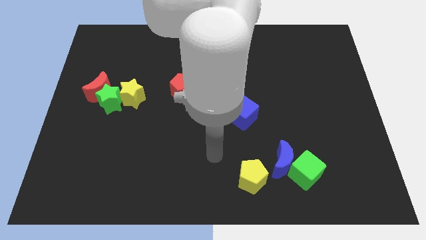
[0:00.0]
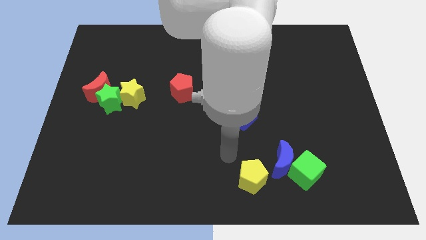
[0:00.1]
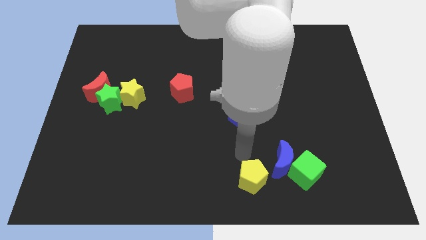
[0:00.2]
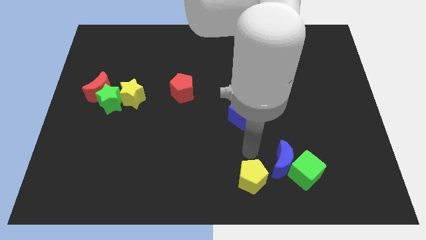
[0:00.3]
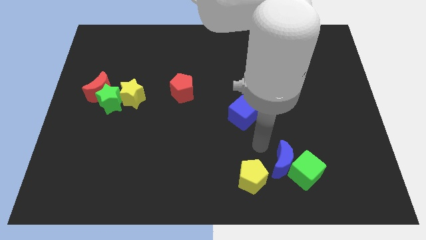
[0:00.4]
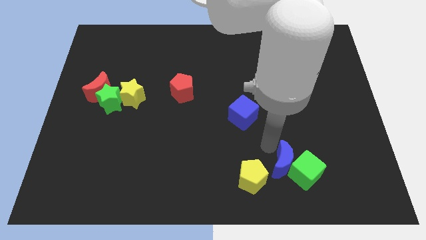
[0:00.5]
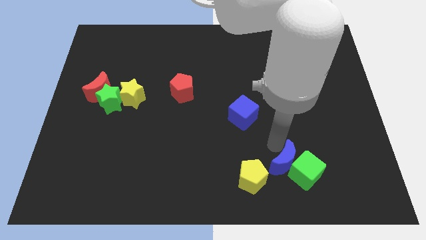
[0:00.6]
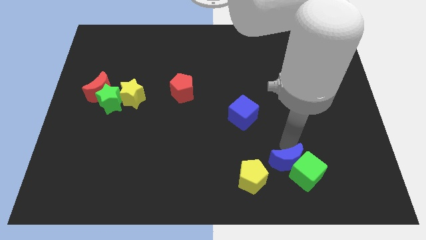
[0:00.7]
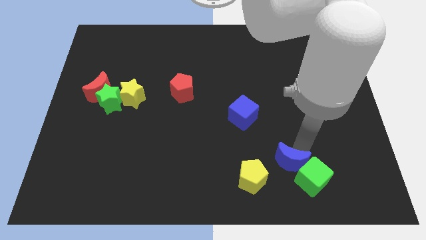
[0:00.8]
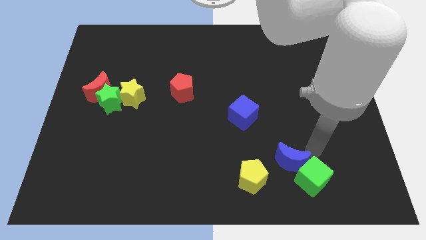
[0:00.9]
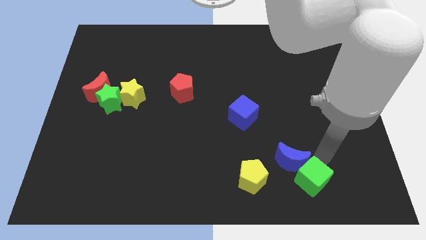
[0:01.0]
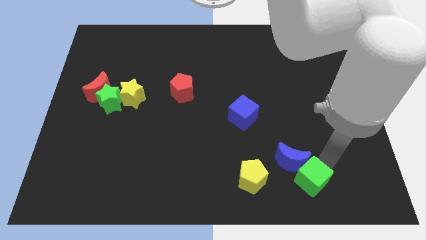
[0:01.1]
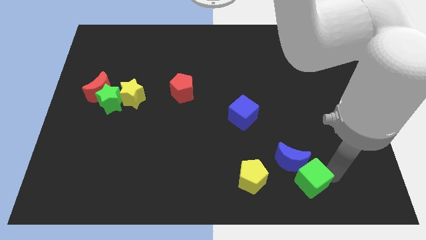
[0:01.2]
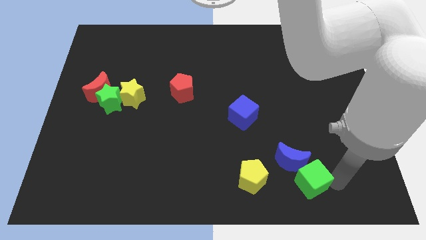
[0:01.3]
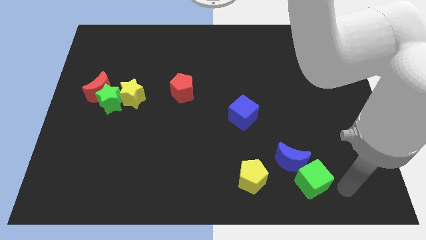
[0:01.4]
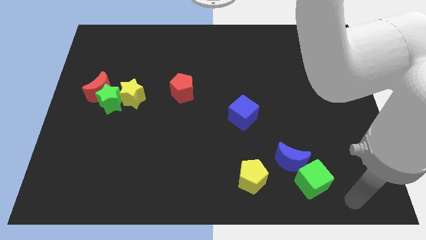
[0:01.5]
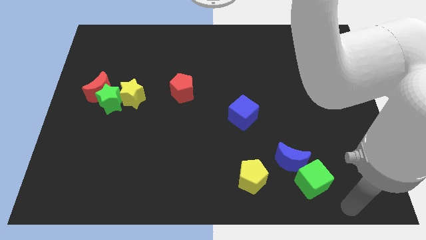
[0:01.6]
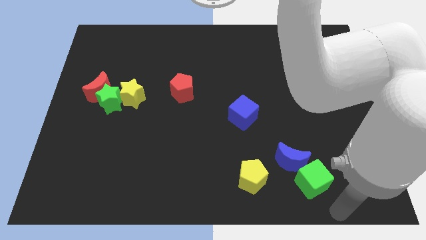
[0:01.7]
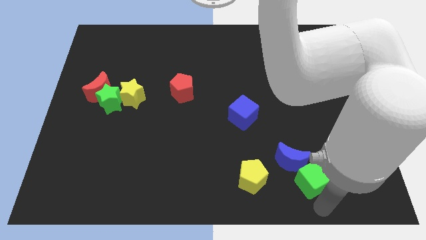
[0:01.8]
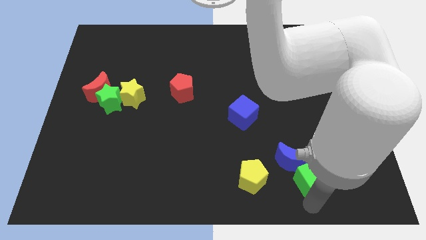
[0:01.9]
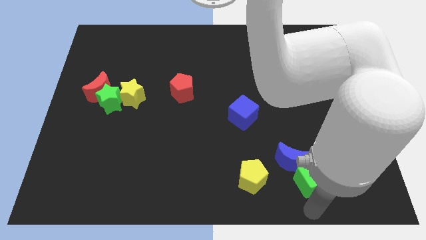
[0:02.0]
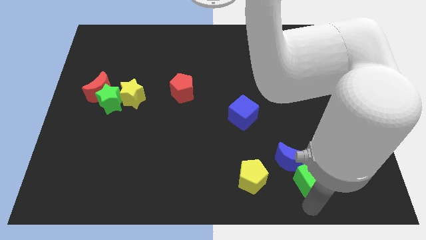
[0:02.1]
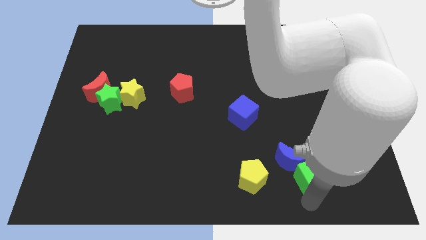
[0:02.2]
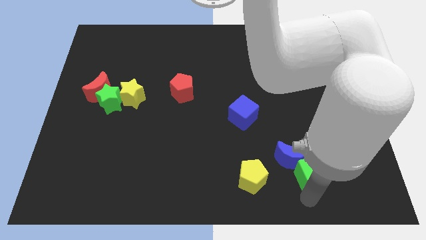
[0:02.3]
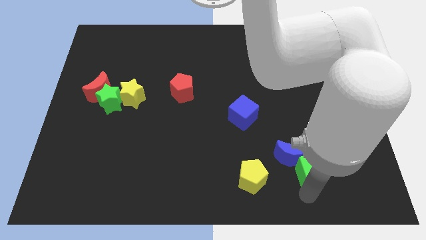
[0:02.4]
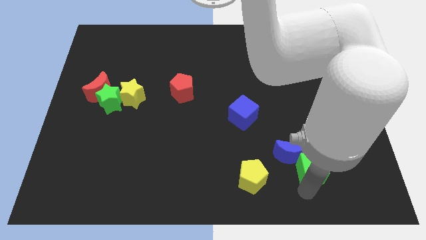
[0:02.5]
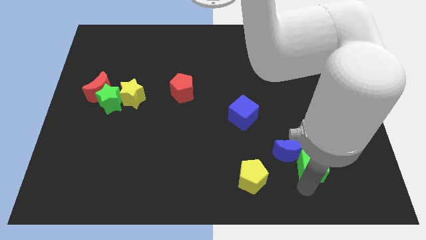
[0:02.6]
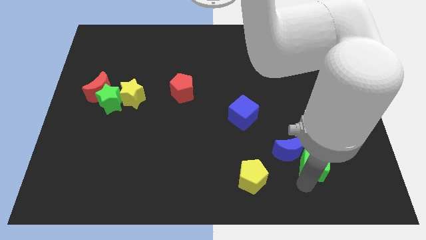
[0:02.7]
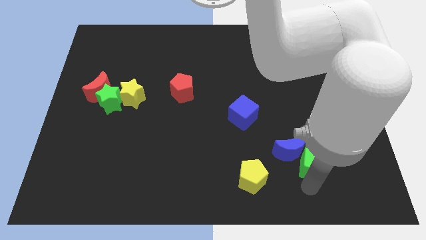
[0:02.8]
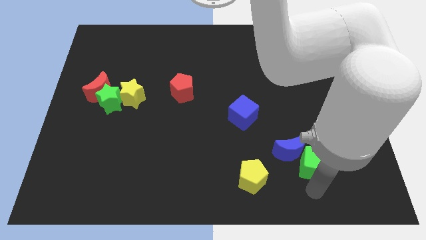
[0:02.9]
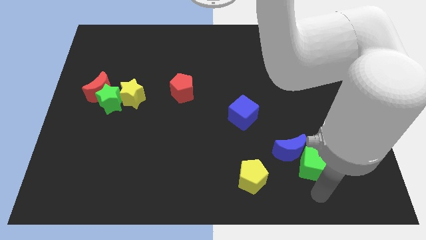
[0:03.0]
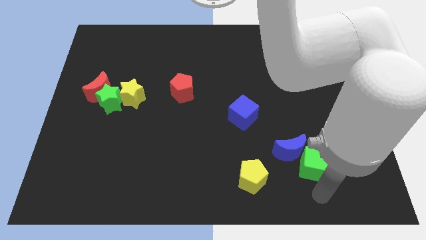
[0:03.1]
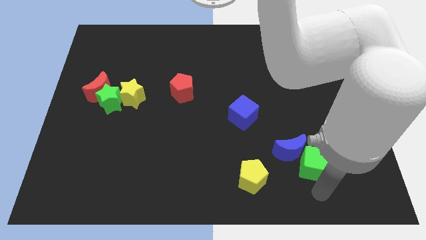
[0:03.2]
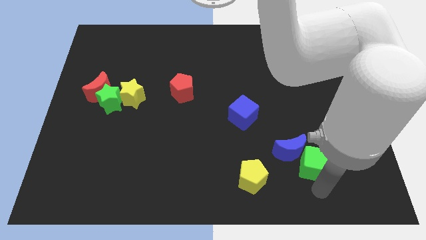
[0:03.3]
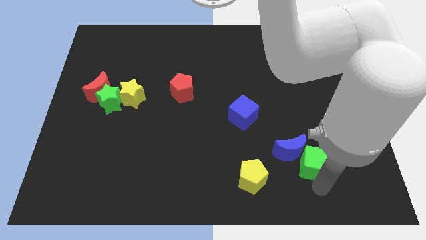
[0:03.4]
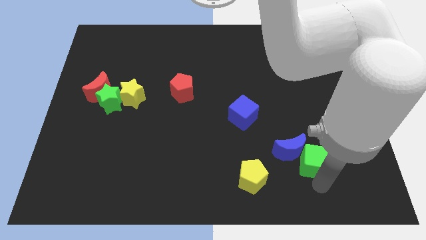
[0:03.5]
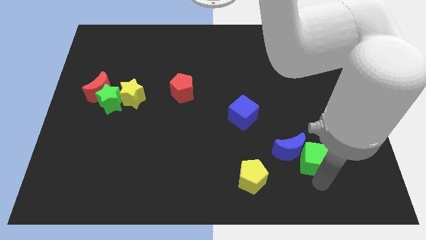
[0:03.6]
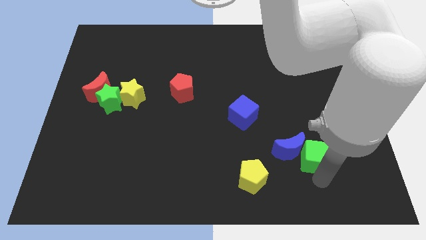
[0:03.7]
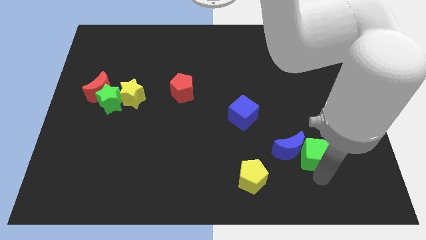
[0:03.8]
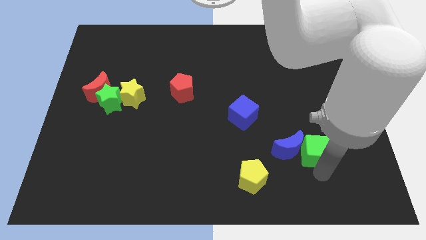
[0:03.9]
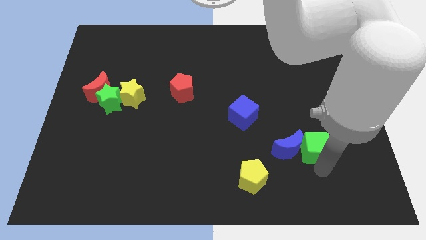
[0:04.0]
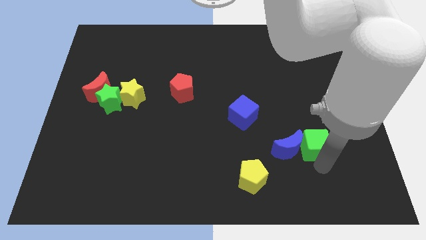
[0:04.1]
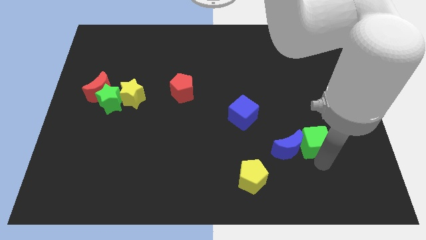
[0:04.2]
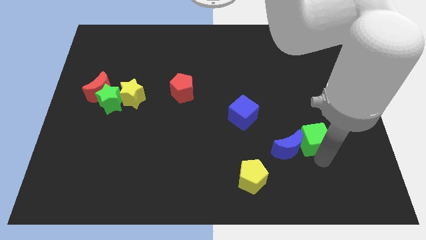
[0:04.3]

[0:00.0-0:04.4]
slide the green cube upwards a little bit

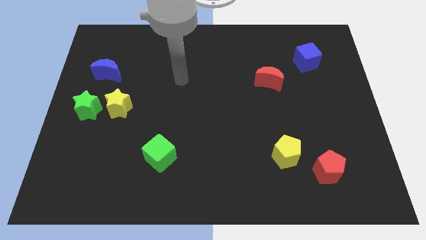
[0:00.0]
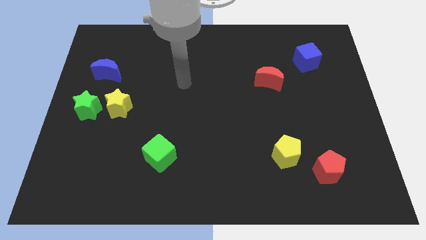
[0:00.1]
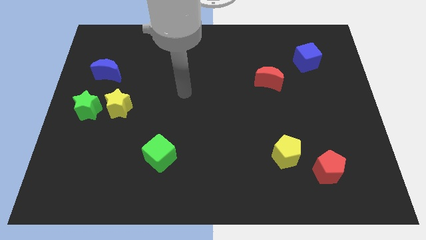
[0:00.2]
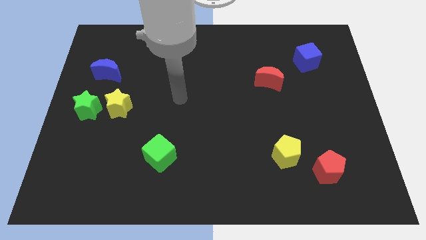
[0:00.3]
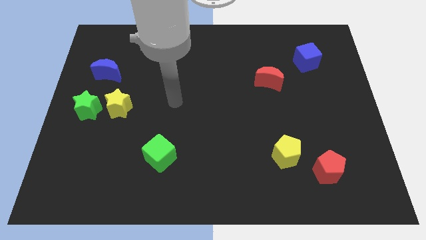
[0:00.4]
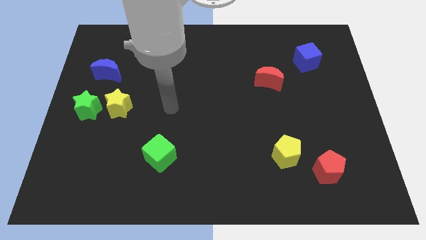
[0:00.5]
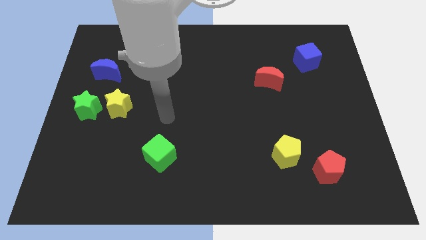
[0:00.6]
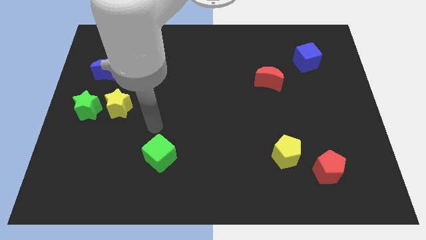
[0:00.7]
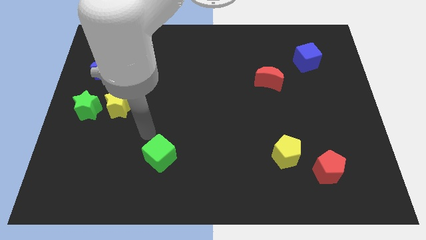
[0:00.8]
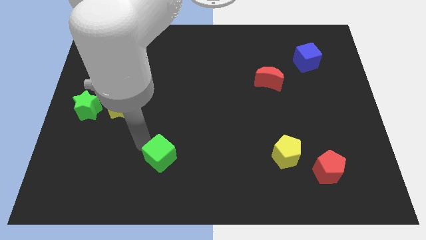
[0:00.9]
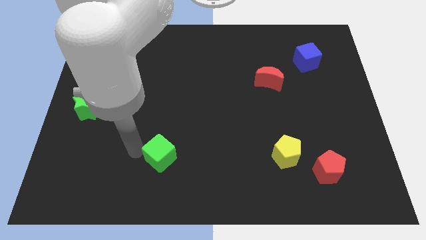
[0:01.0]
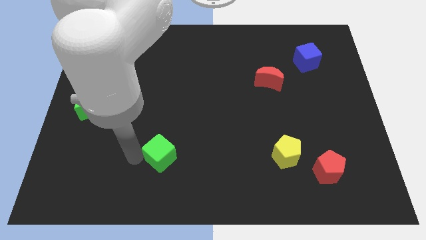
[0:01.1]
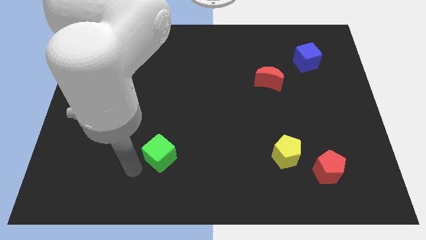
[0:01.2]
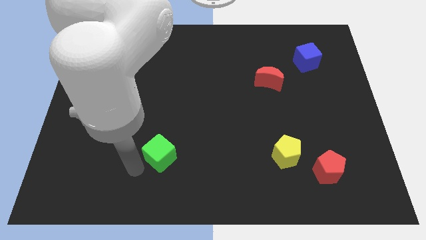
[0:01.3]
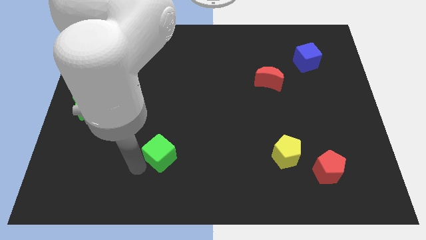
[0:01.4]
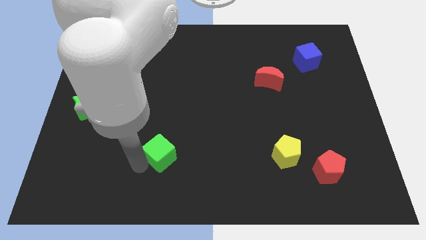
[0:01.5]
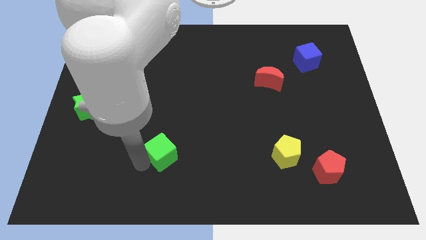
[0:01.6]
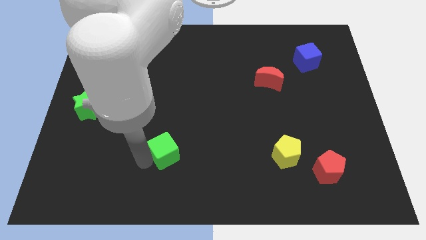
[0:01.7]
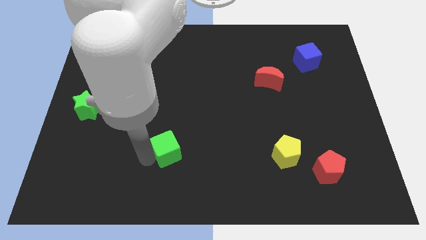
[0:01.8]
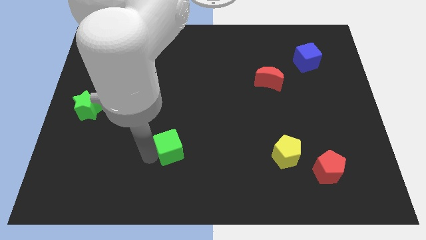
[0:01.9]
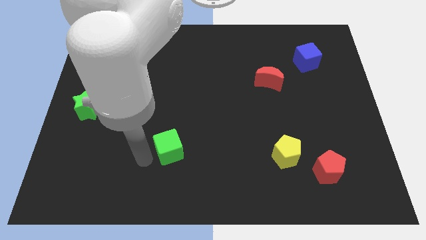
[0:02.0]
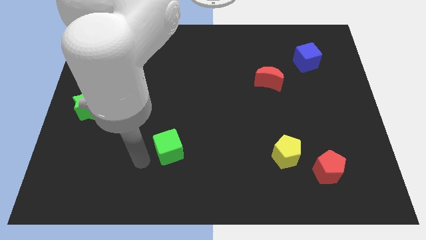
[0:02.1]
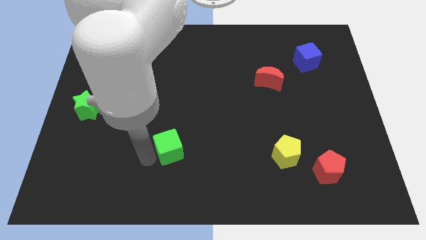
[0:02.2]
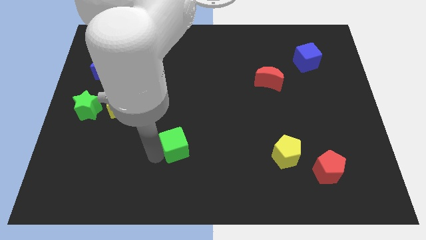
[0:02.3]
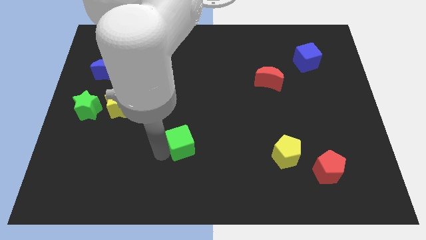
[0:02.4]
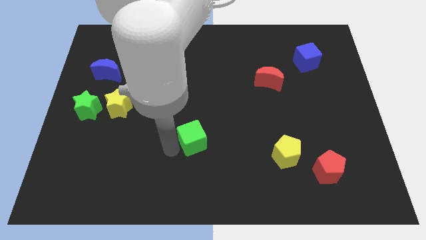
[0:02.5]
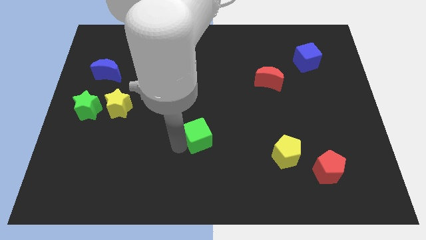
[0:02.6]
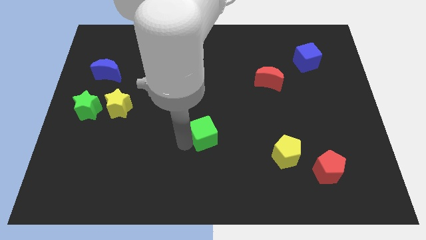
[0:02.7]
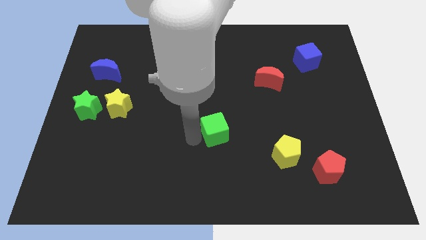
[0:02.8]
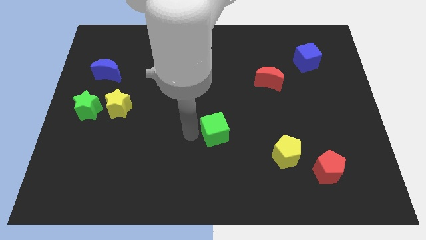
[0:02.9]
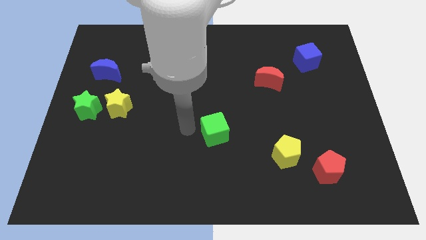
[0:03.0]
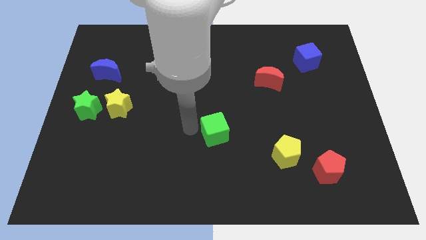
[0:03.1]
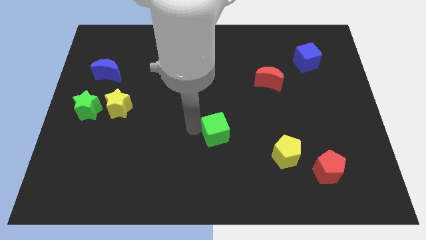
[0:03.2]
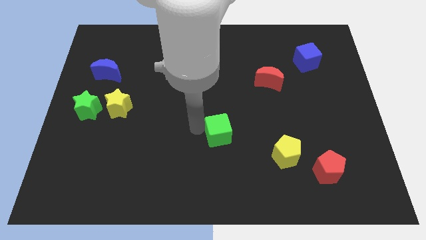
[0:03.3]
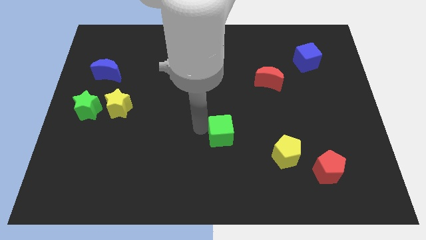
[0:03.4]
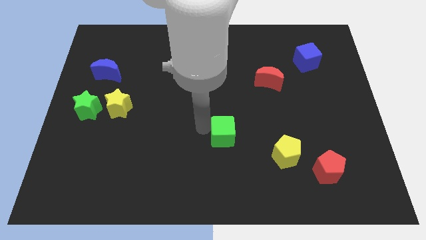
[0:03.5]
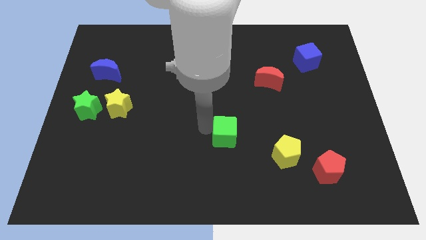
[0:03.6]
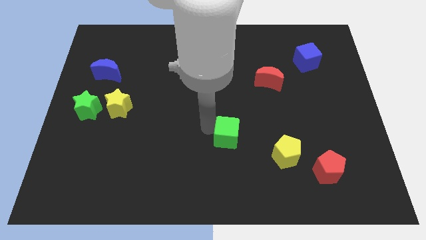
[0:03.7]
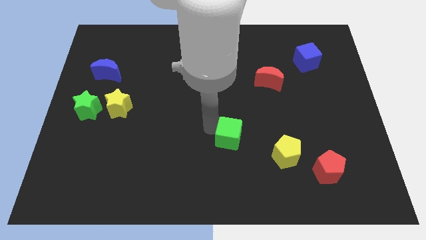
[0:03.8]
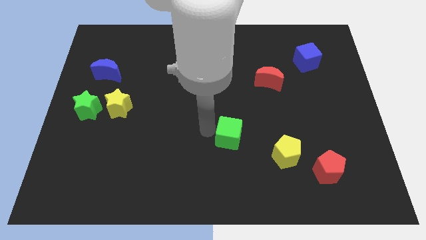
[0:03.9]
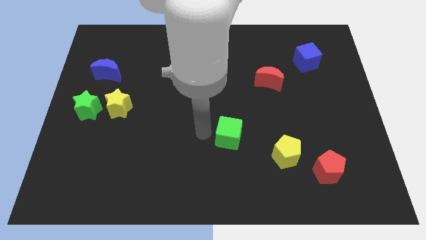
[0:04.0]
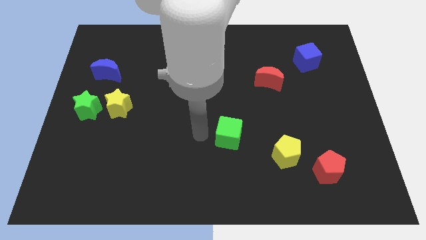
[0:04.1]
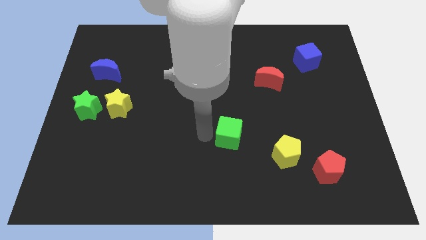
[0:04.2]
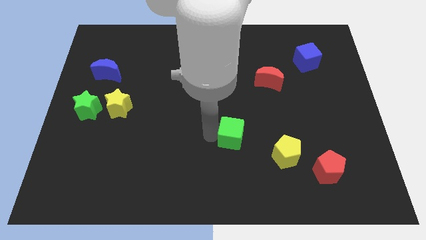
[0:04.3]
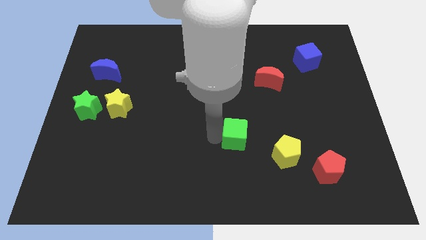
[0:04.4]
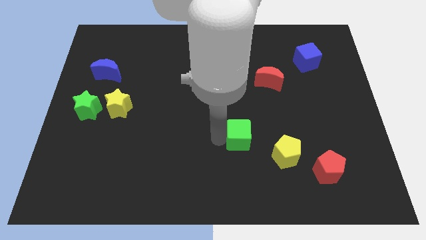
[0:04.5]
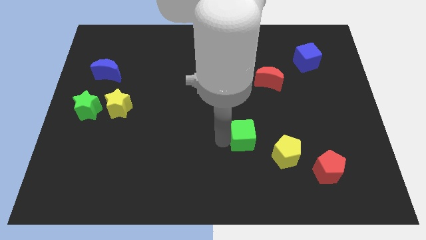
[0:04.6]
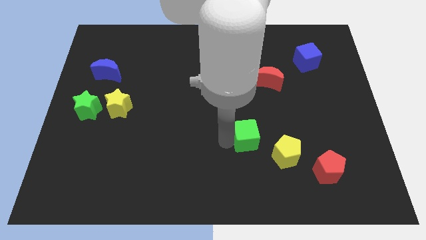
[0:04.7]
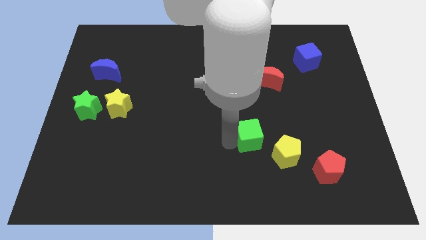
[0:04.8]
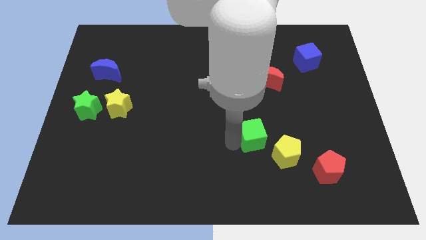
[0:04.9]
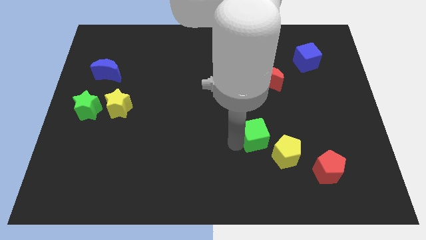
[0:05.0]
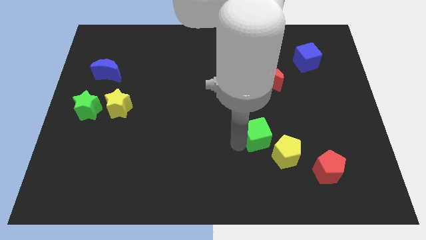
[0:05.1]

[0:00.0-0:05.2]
push the green cube to the right
